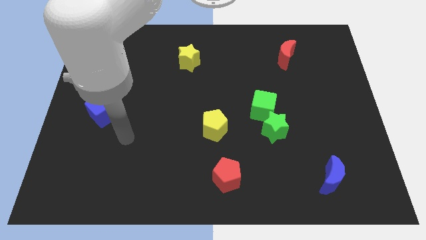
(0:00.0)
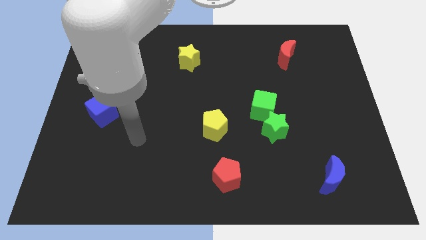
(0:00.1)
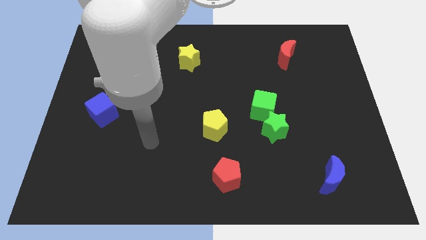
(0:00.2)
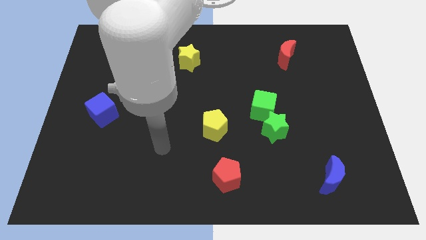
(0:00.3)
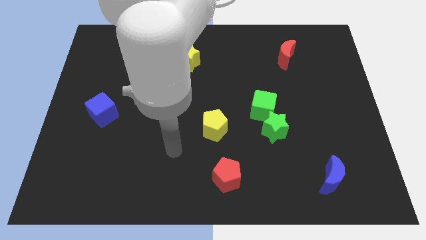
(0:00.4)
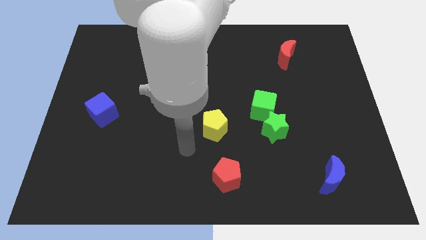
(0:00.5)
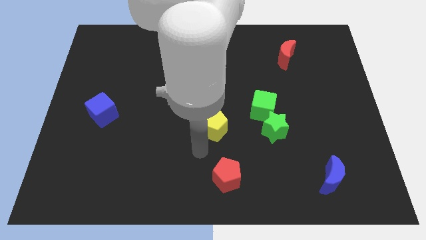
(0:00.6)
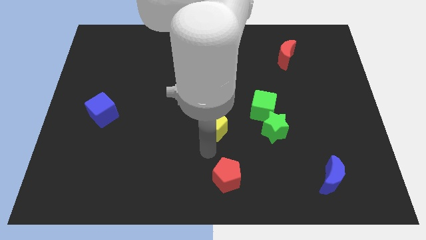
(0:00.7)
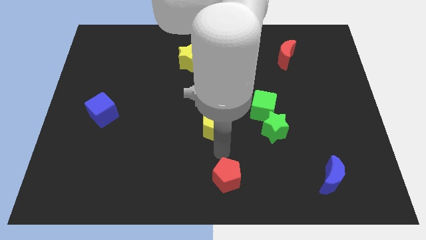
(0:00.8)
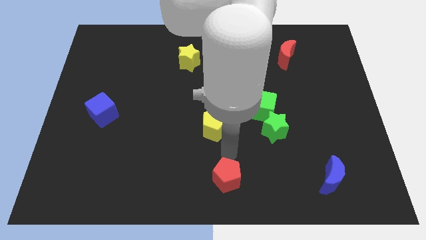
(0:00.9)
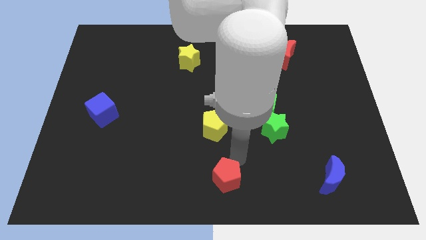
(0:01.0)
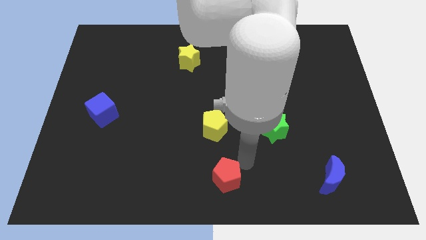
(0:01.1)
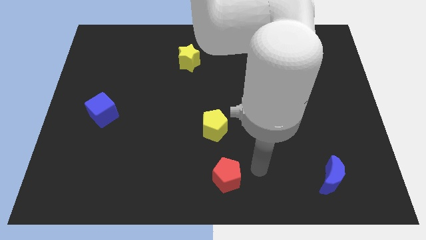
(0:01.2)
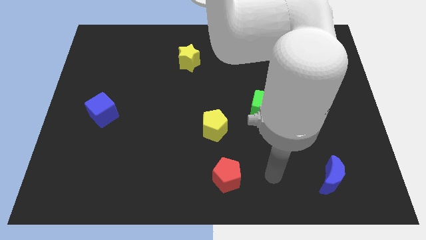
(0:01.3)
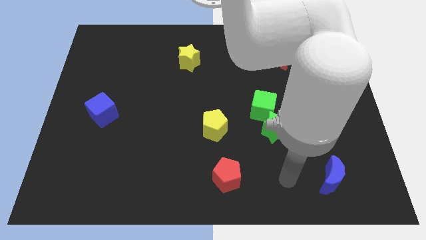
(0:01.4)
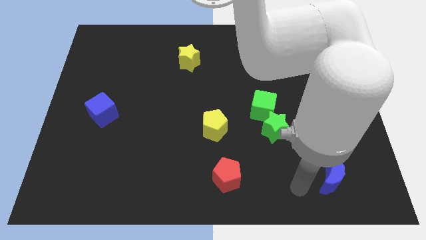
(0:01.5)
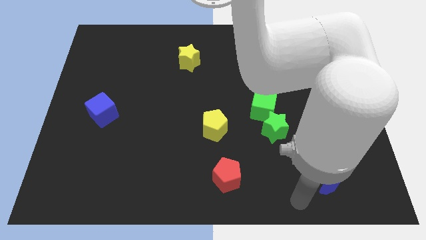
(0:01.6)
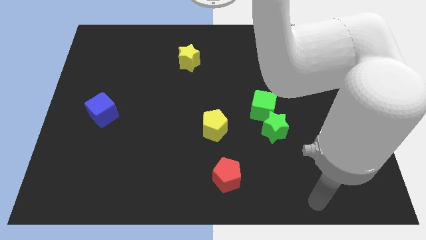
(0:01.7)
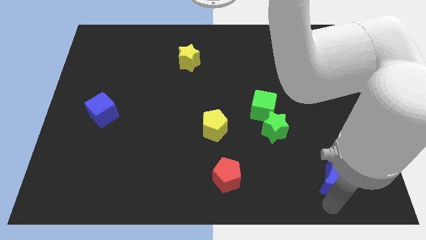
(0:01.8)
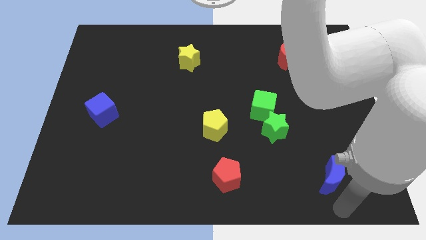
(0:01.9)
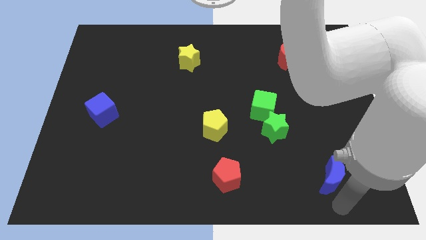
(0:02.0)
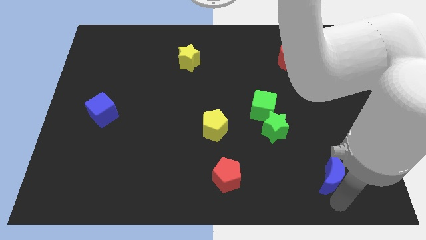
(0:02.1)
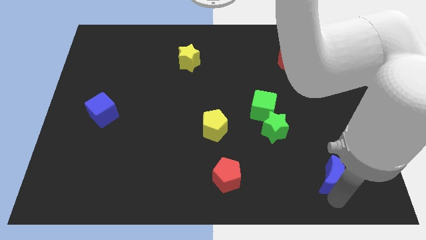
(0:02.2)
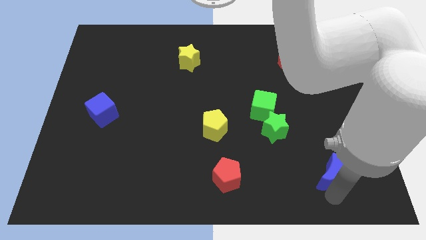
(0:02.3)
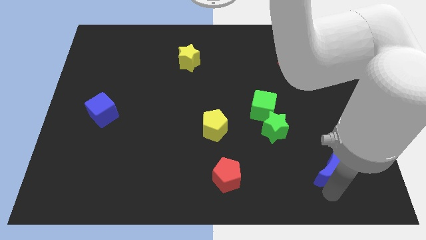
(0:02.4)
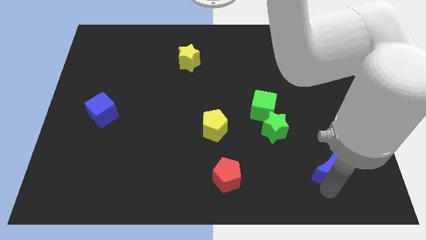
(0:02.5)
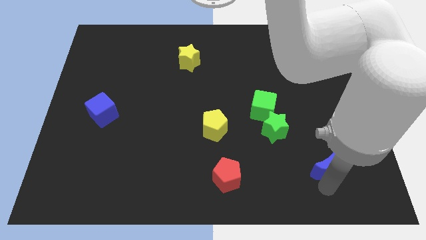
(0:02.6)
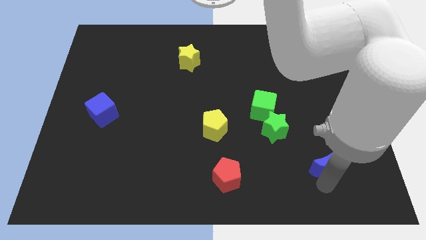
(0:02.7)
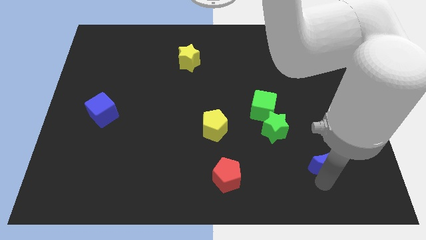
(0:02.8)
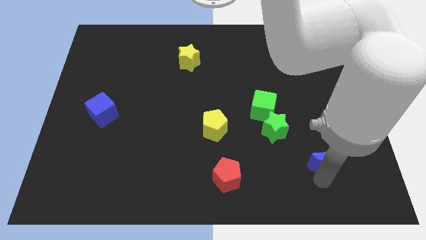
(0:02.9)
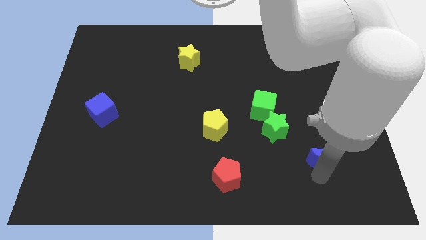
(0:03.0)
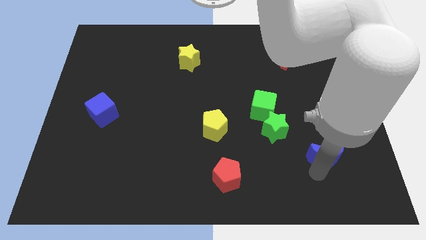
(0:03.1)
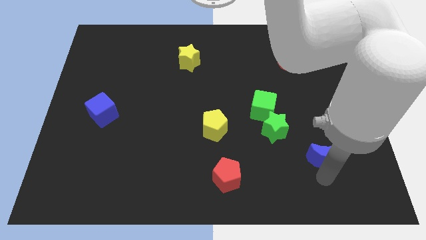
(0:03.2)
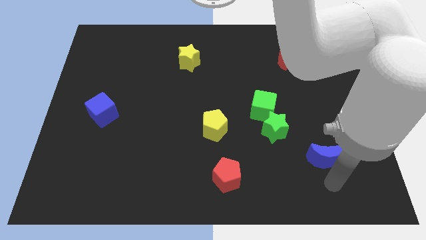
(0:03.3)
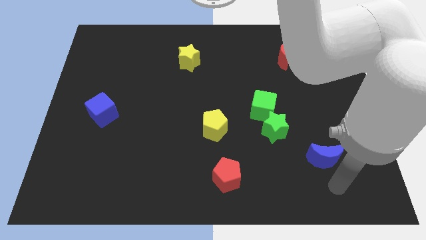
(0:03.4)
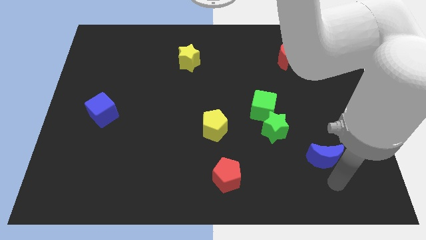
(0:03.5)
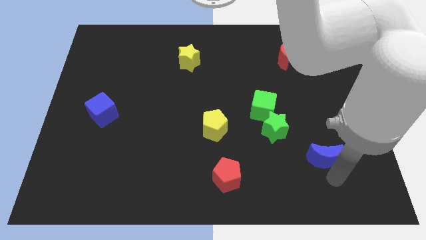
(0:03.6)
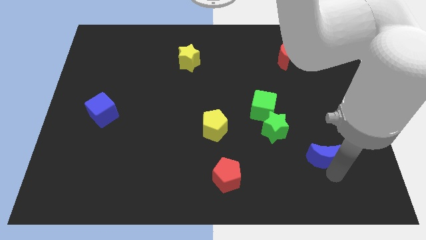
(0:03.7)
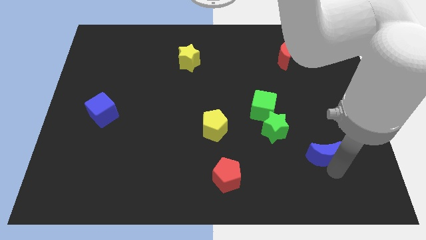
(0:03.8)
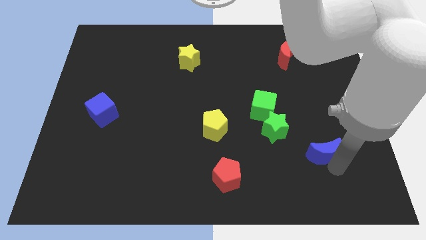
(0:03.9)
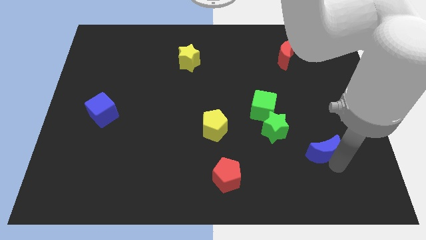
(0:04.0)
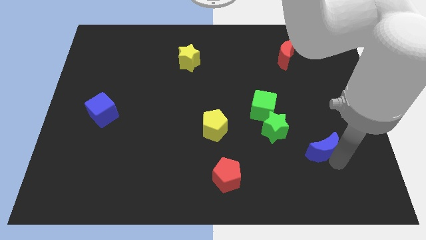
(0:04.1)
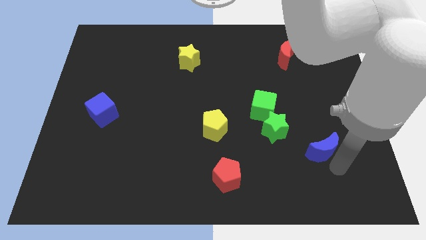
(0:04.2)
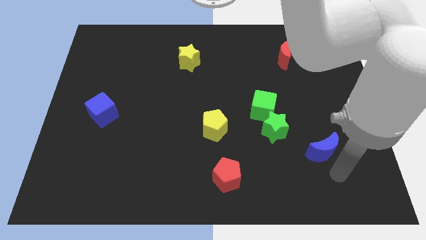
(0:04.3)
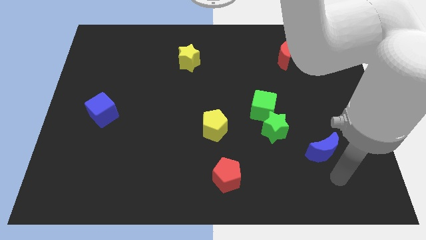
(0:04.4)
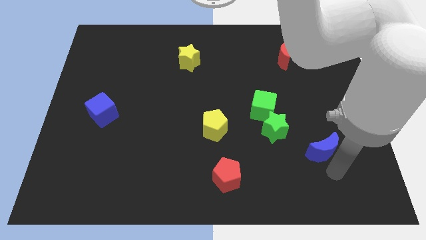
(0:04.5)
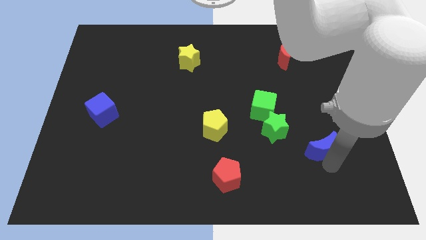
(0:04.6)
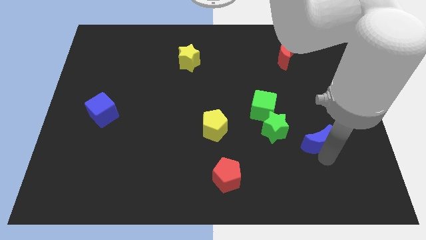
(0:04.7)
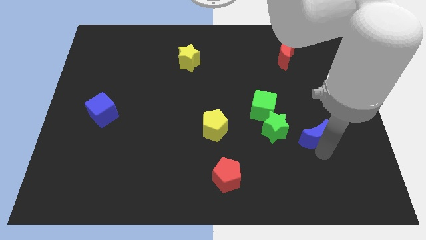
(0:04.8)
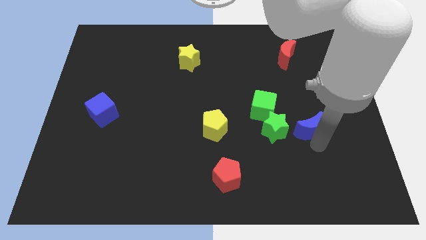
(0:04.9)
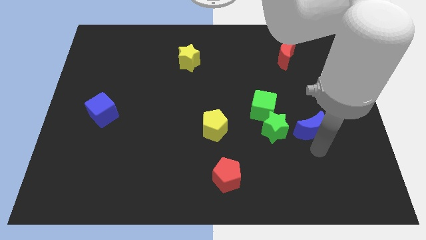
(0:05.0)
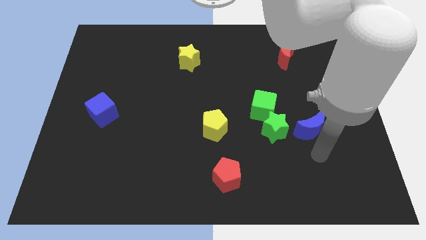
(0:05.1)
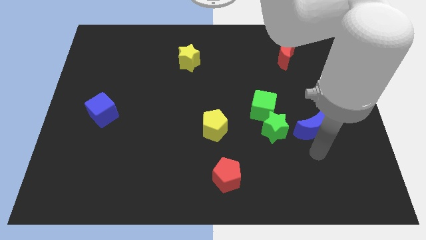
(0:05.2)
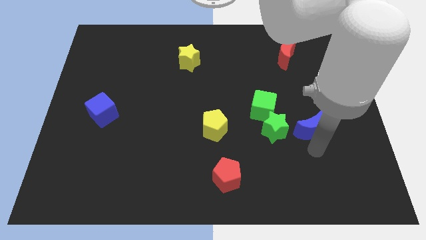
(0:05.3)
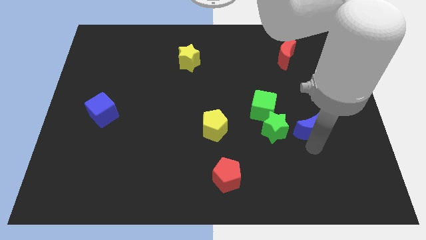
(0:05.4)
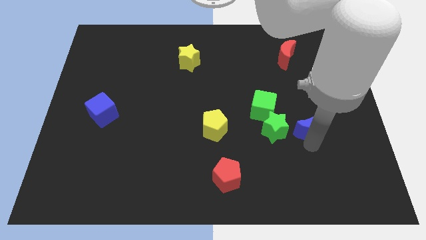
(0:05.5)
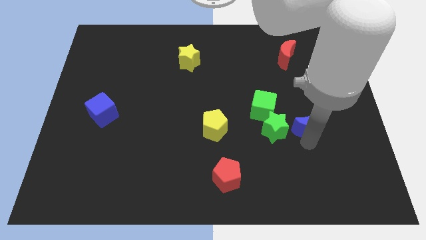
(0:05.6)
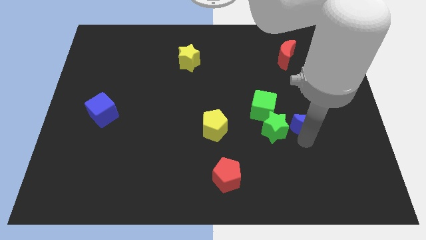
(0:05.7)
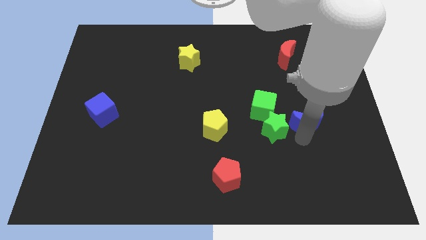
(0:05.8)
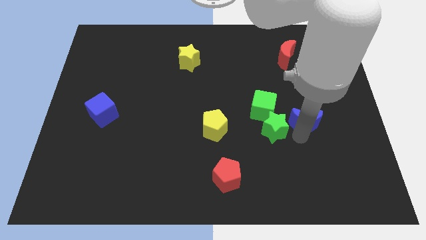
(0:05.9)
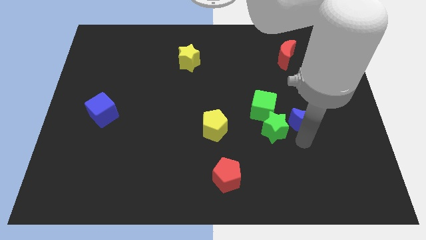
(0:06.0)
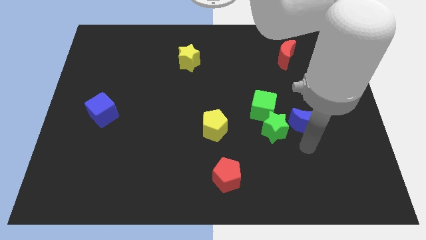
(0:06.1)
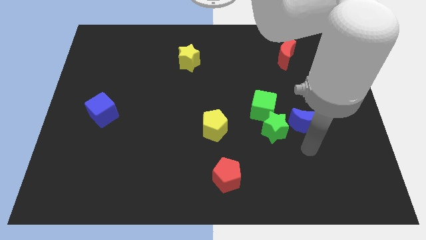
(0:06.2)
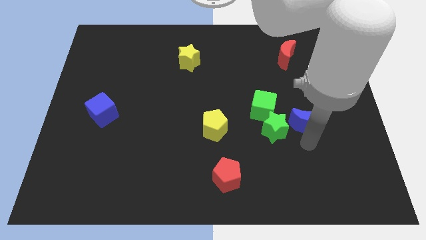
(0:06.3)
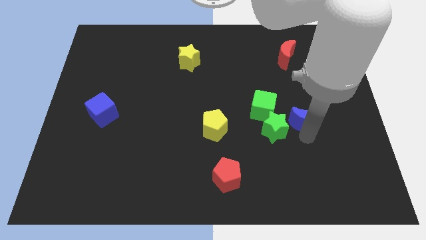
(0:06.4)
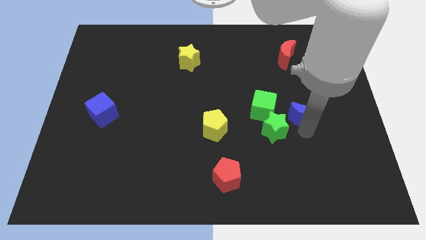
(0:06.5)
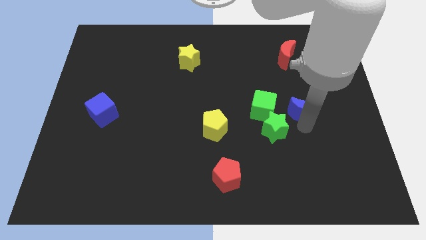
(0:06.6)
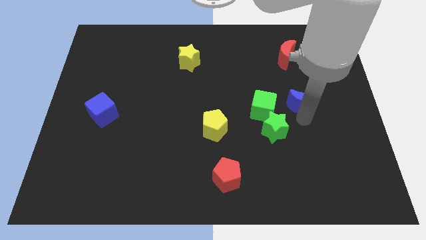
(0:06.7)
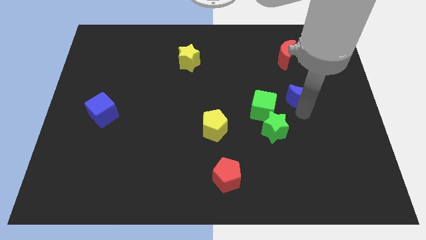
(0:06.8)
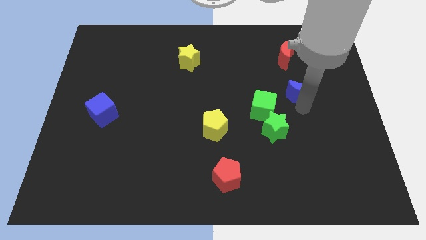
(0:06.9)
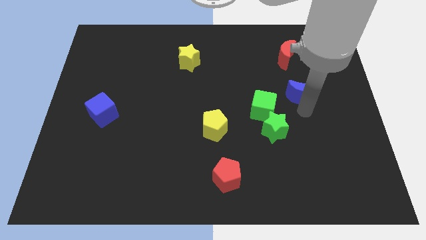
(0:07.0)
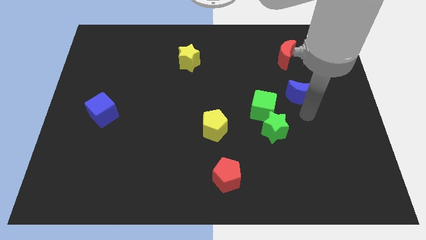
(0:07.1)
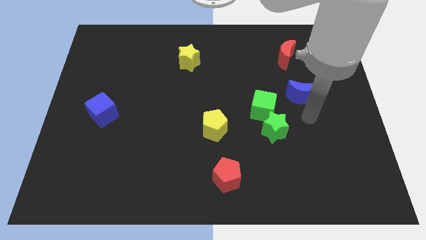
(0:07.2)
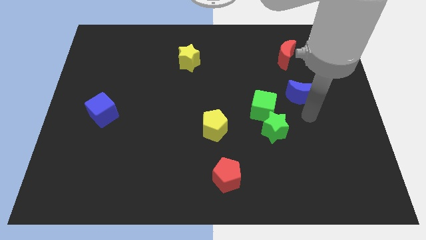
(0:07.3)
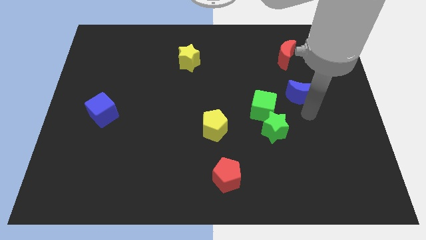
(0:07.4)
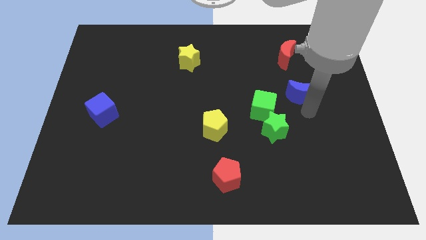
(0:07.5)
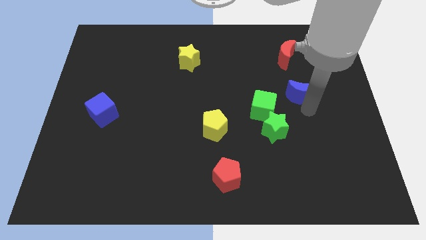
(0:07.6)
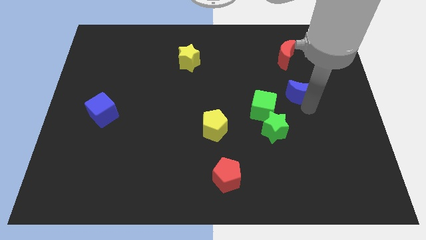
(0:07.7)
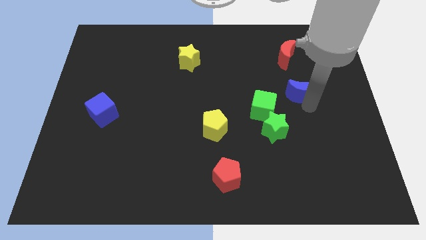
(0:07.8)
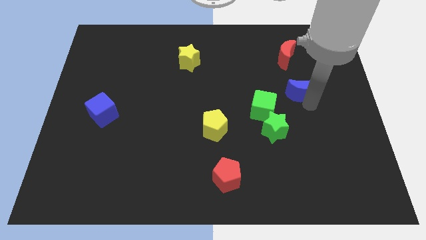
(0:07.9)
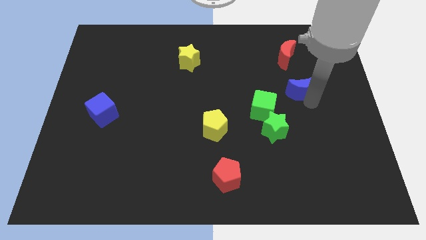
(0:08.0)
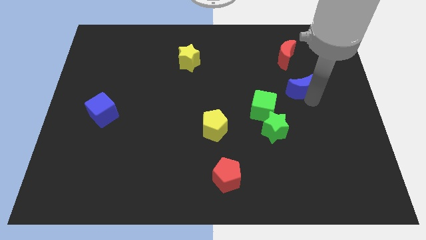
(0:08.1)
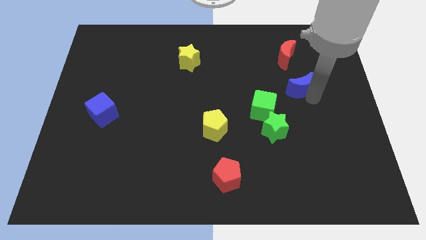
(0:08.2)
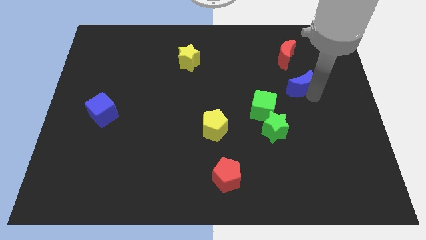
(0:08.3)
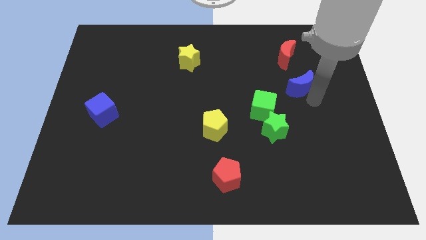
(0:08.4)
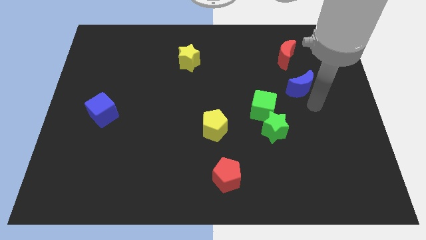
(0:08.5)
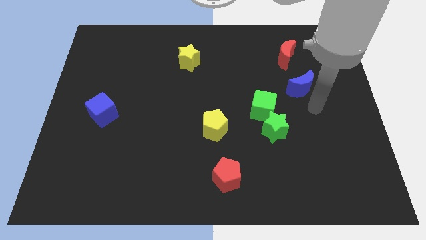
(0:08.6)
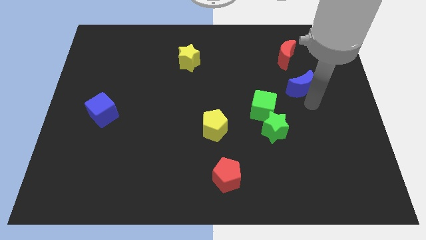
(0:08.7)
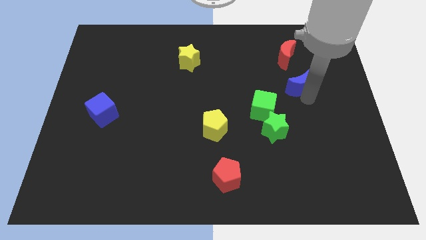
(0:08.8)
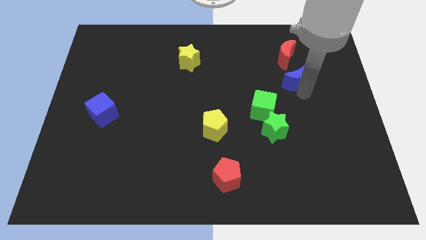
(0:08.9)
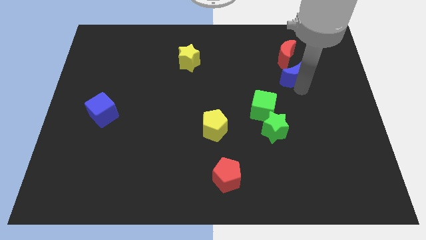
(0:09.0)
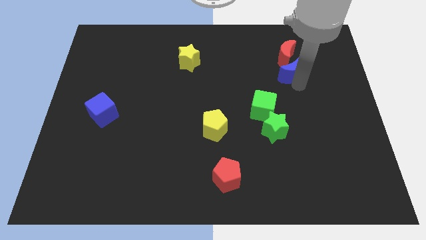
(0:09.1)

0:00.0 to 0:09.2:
slide the blue moon next to the red moon
